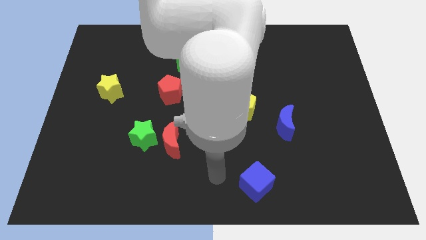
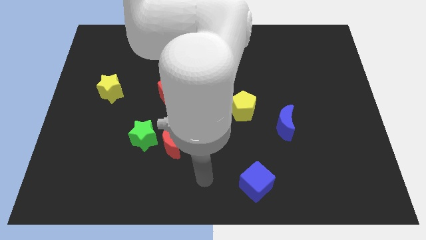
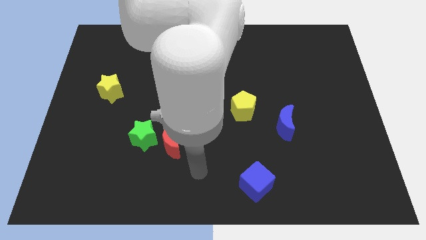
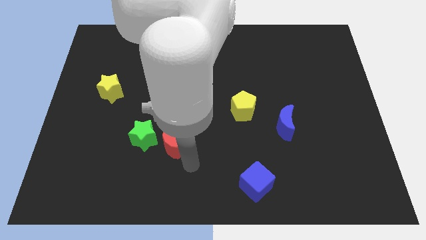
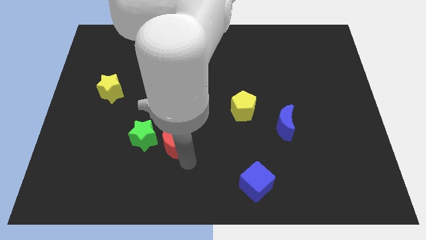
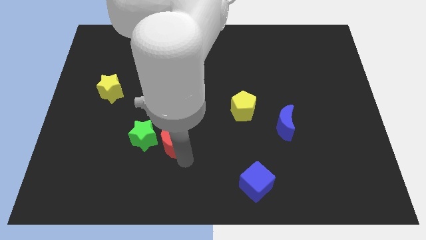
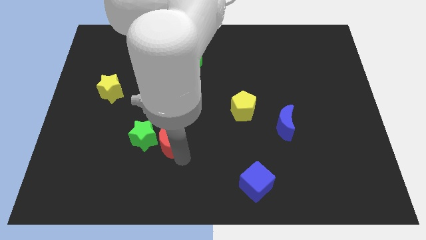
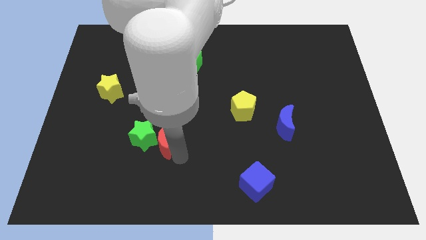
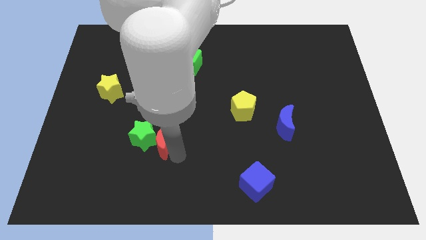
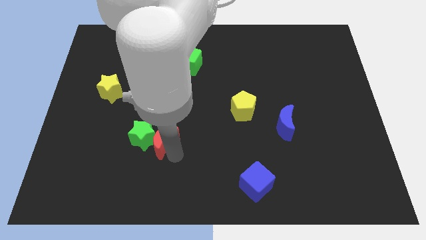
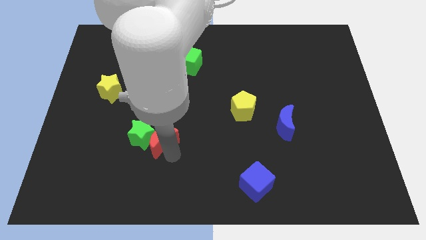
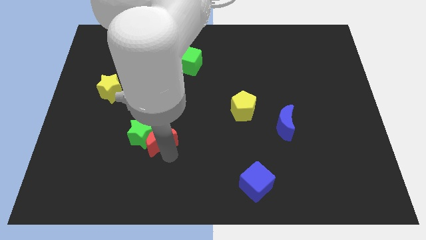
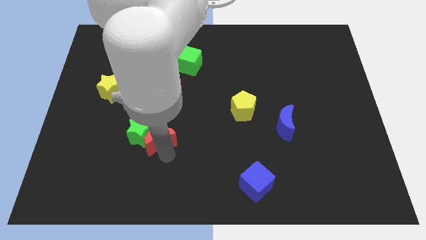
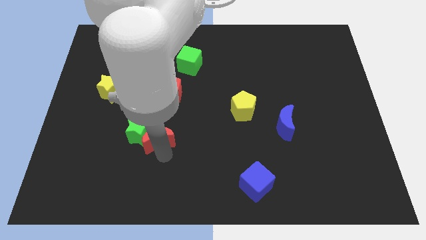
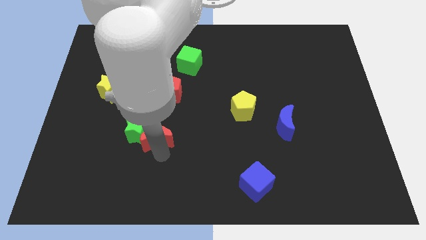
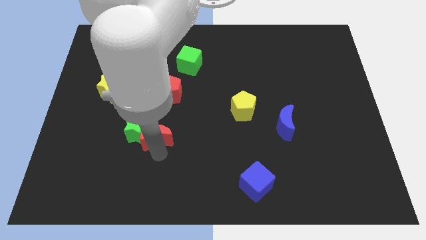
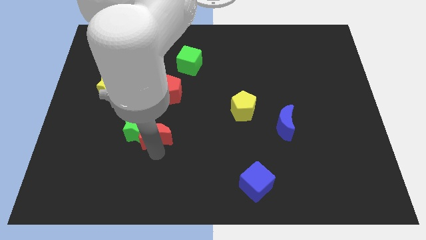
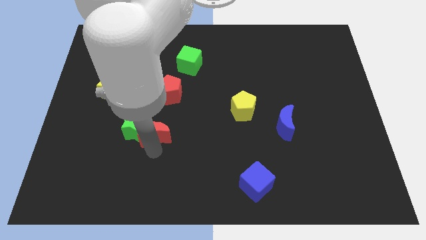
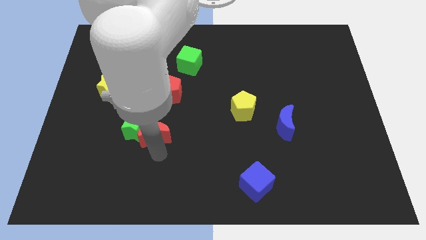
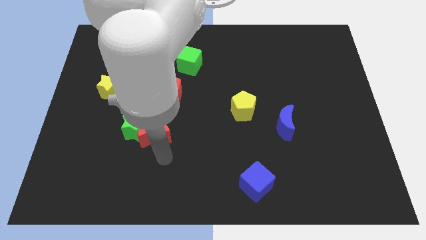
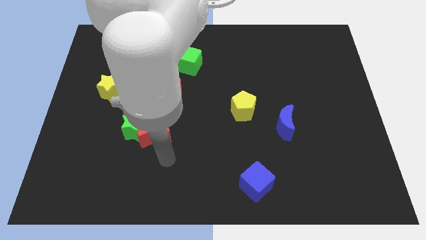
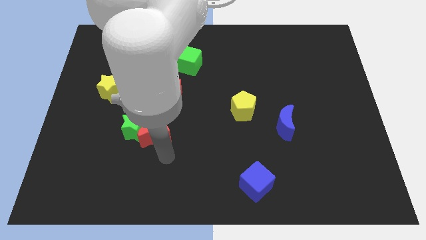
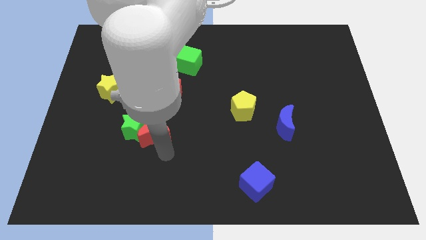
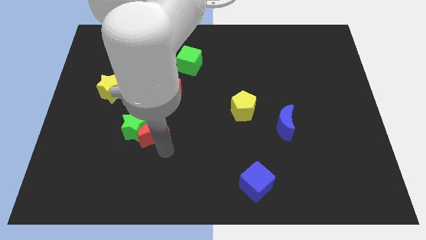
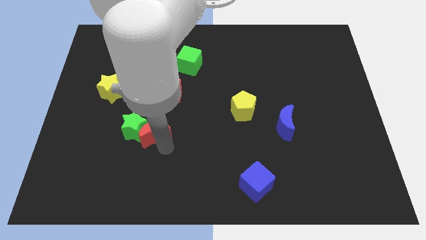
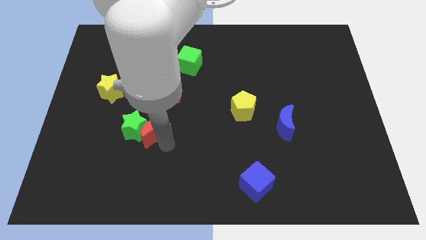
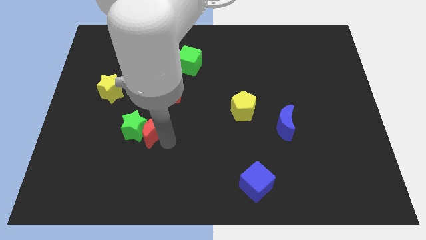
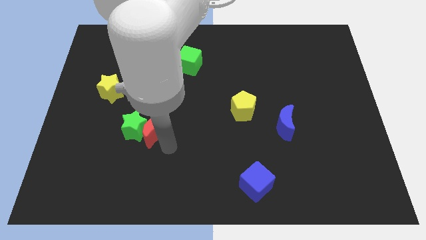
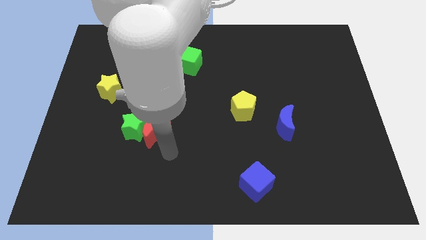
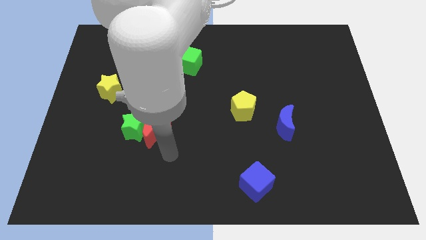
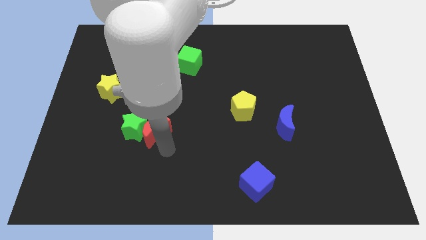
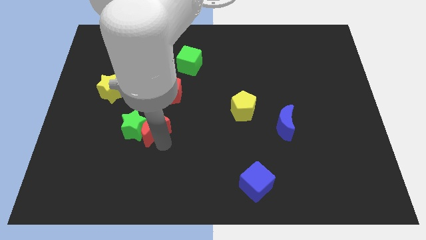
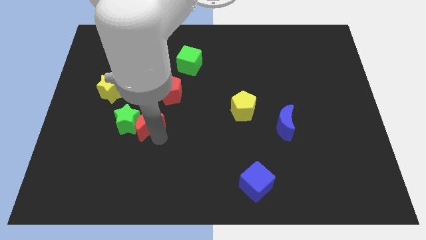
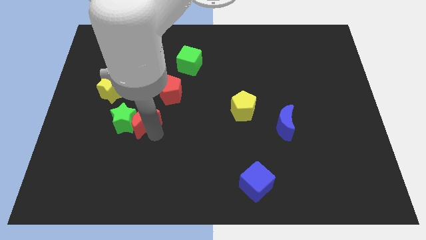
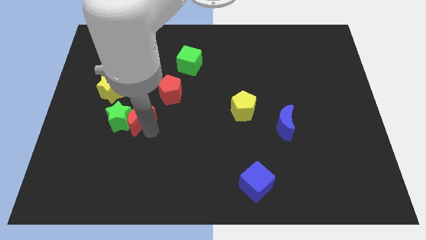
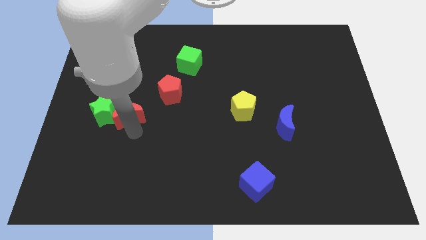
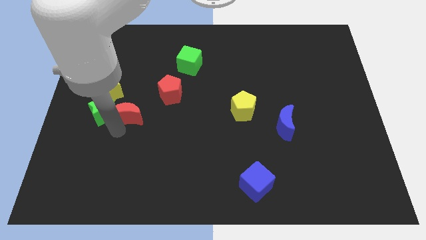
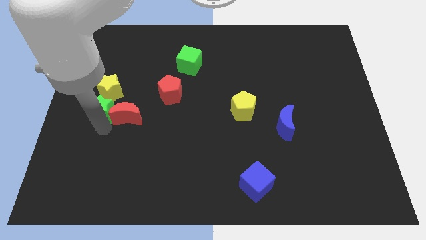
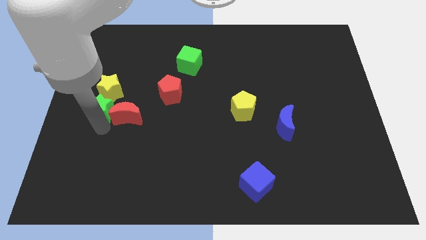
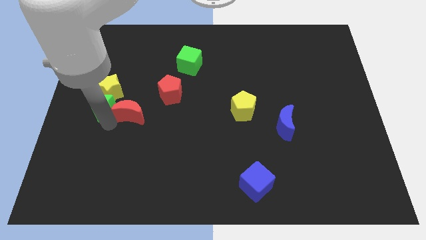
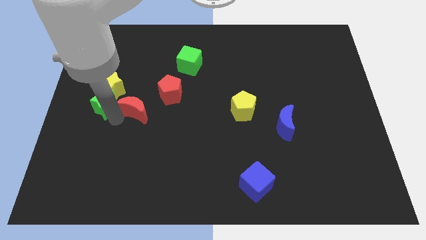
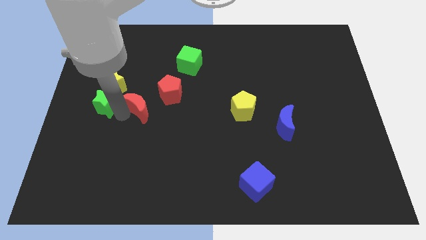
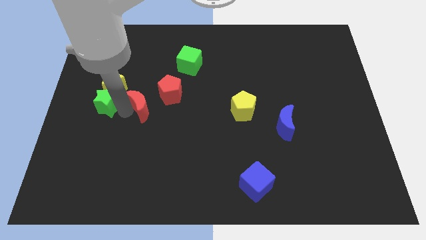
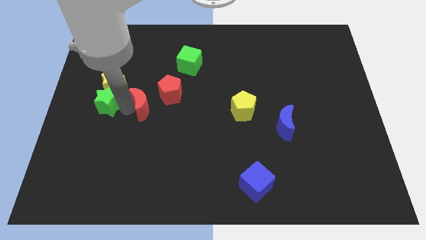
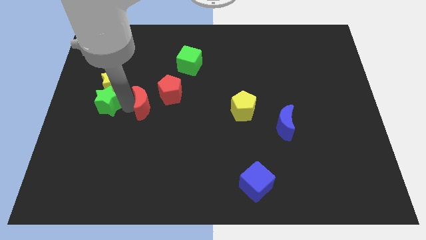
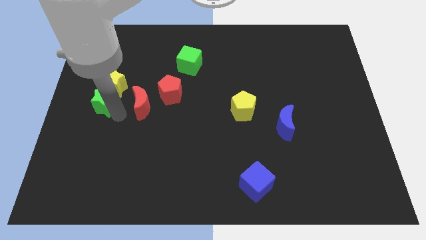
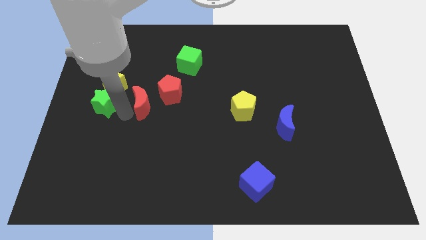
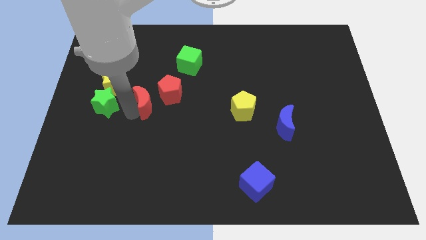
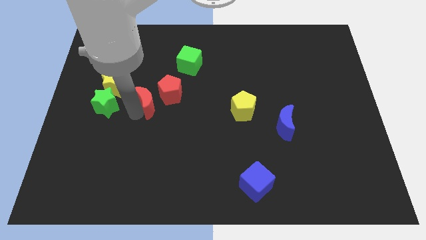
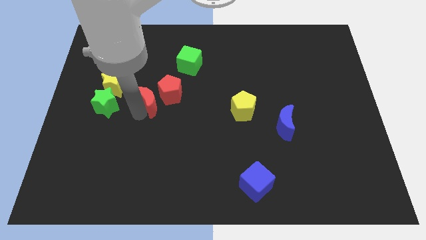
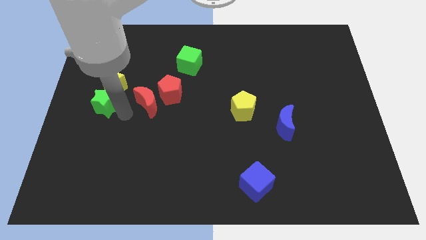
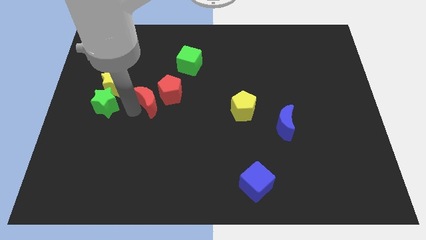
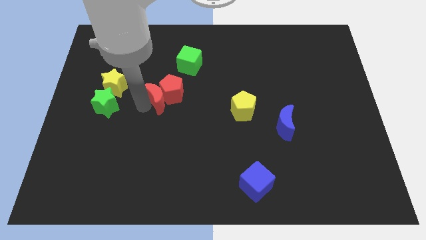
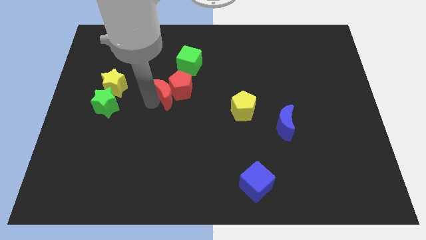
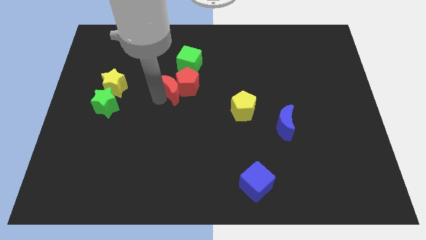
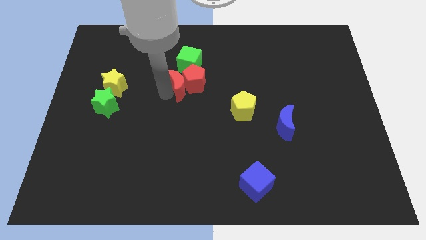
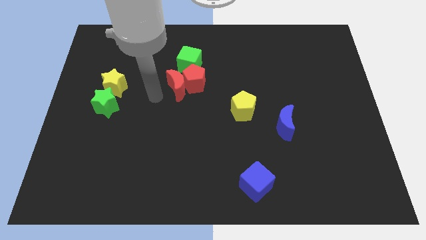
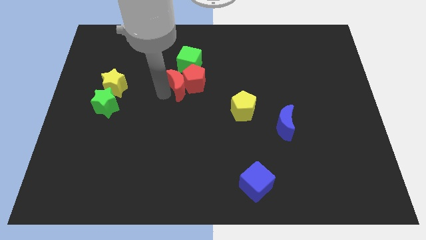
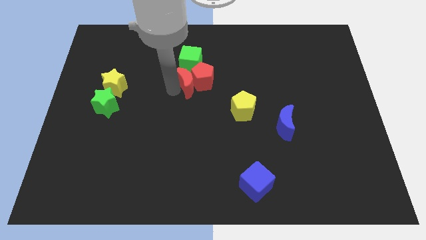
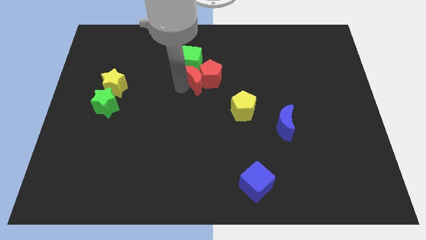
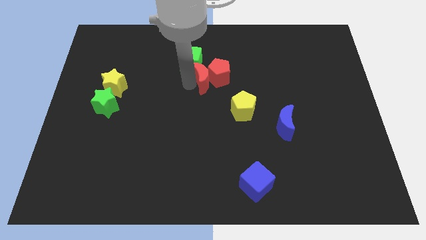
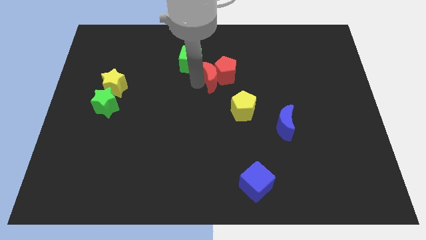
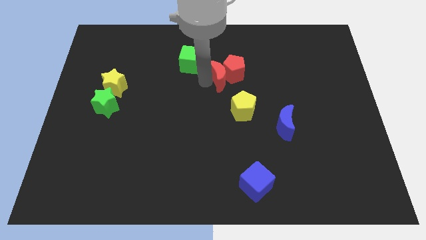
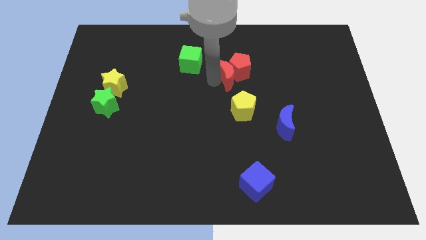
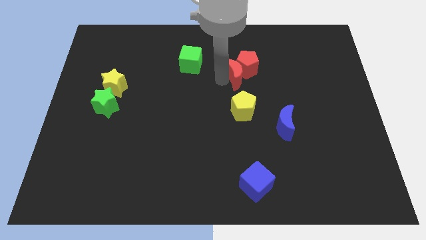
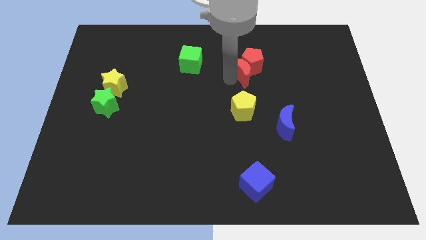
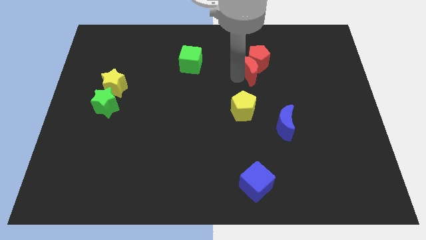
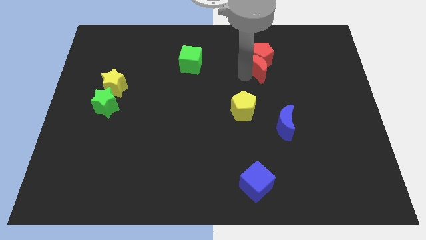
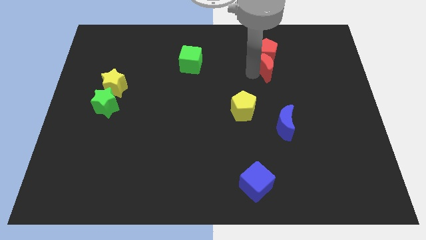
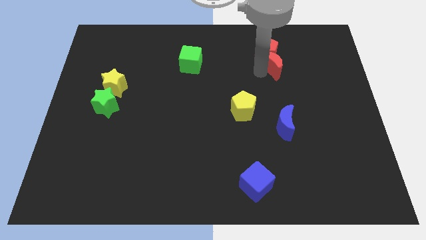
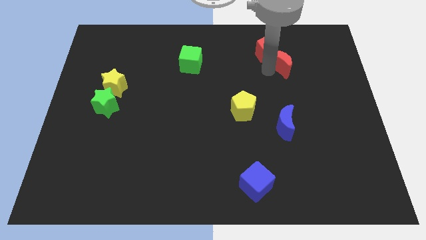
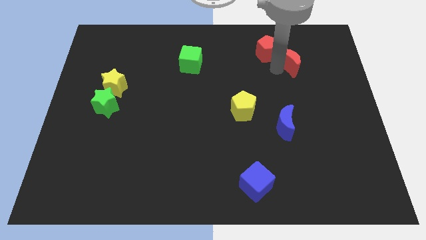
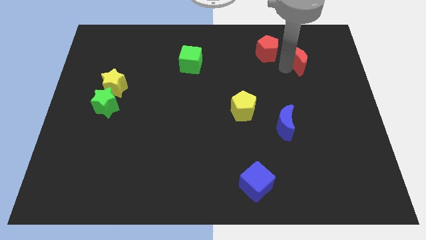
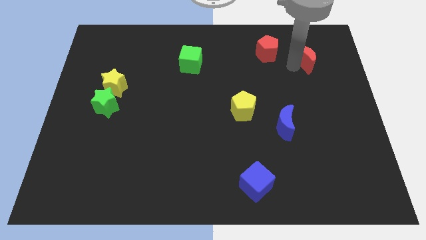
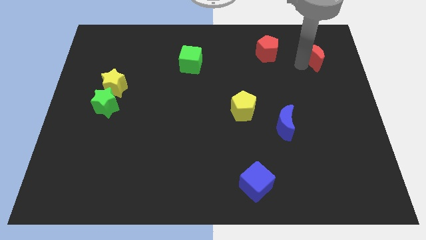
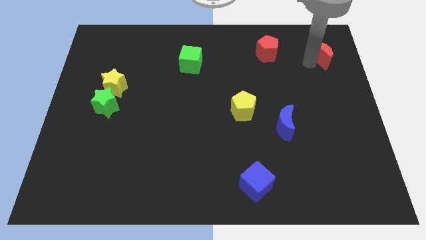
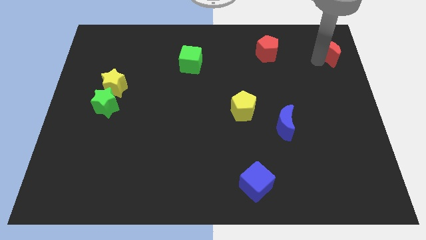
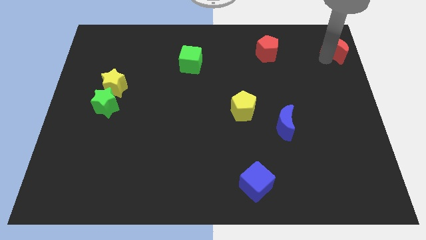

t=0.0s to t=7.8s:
move the red moon to the top right
